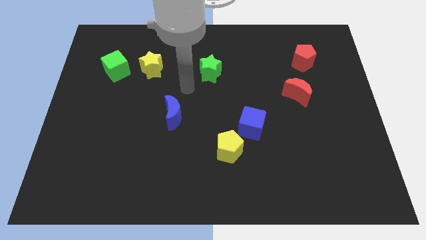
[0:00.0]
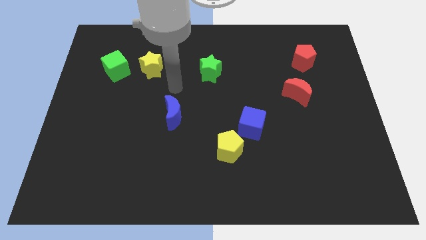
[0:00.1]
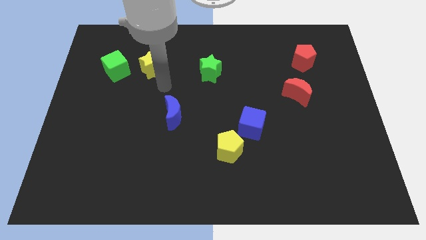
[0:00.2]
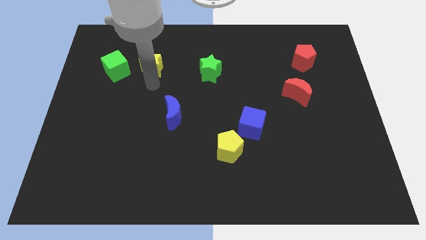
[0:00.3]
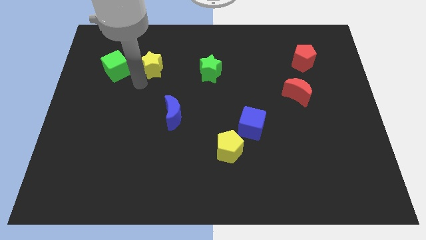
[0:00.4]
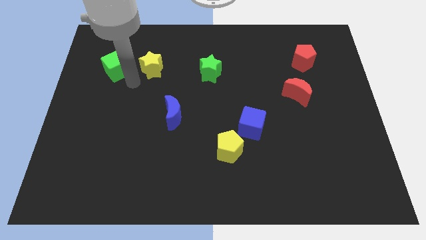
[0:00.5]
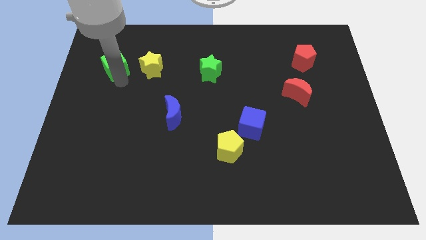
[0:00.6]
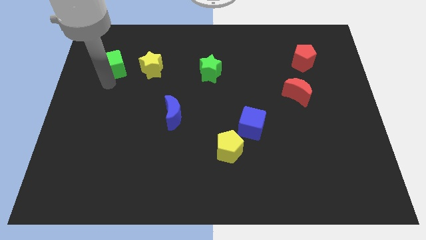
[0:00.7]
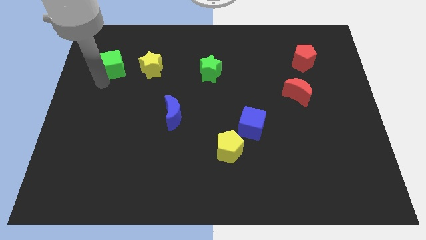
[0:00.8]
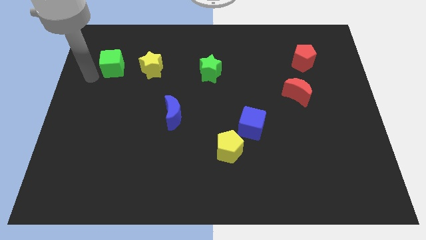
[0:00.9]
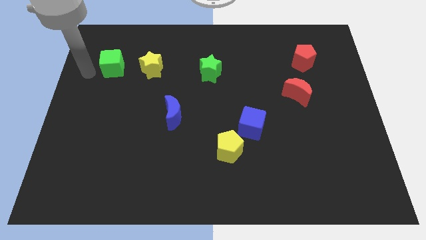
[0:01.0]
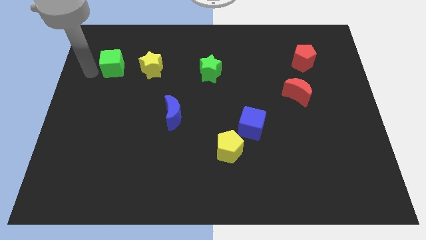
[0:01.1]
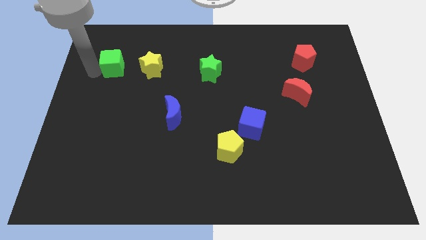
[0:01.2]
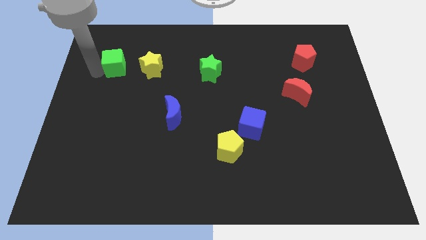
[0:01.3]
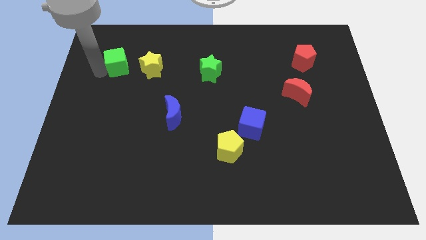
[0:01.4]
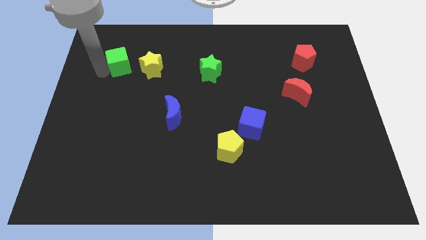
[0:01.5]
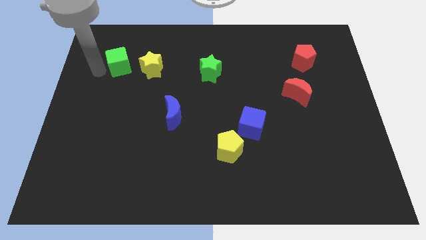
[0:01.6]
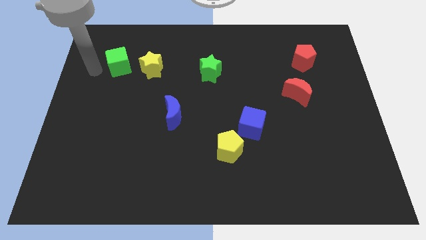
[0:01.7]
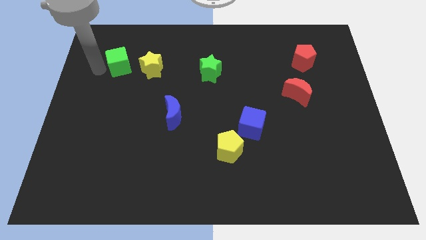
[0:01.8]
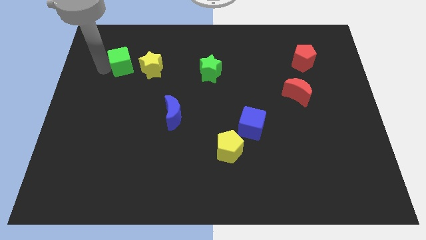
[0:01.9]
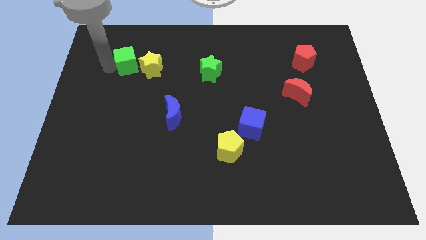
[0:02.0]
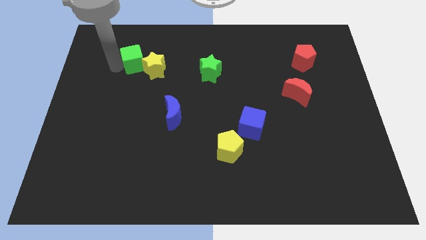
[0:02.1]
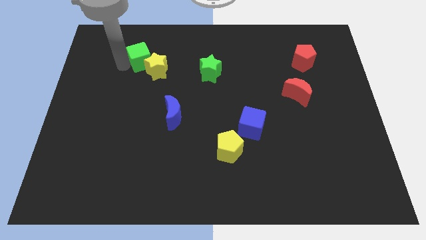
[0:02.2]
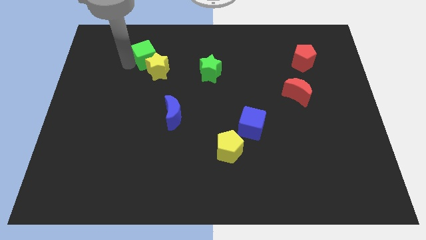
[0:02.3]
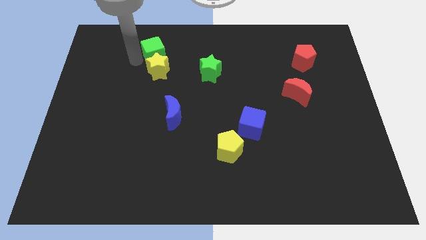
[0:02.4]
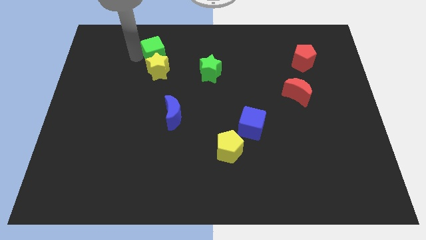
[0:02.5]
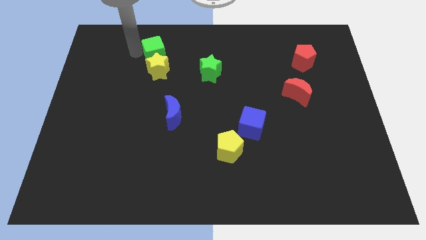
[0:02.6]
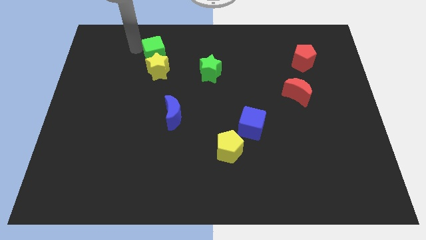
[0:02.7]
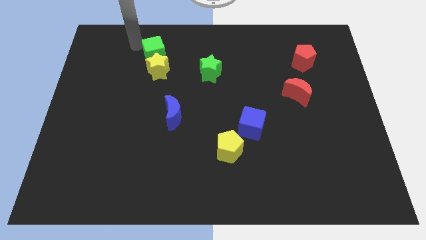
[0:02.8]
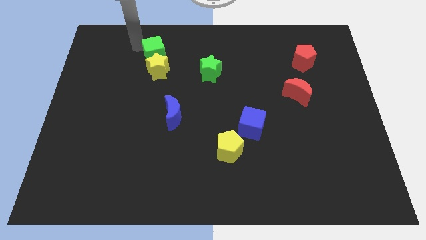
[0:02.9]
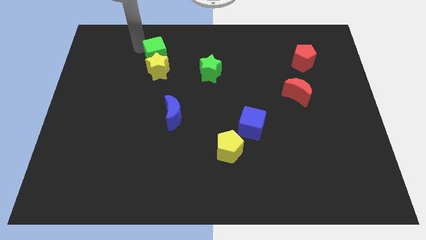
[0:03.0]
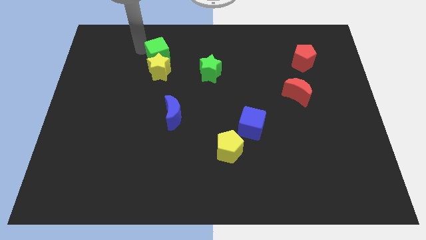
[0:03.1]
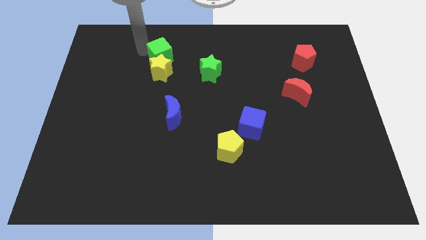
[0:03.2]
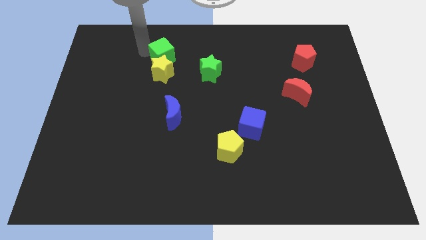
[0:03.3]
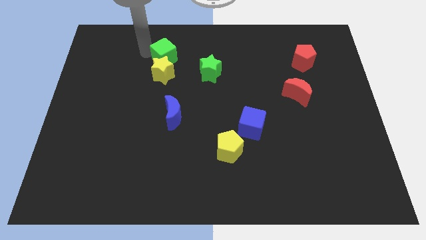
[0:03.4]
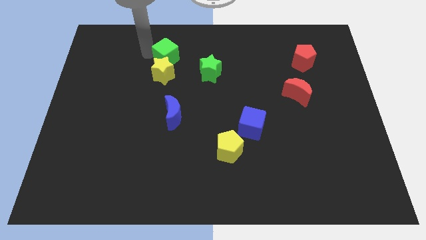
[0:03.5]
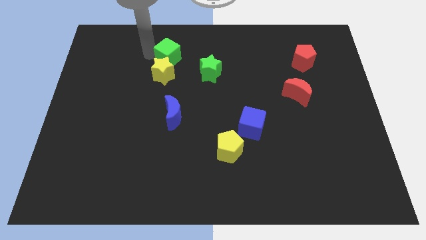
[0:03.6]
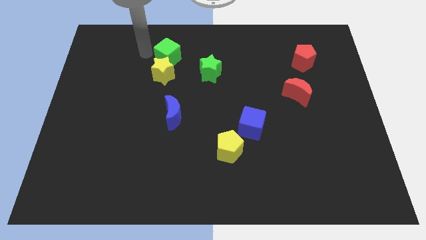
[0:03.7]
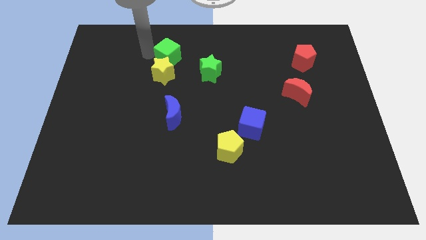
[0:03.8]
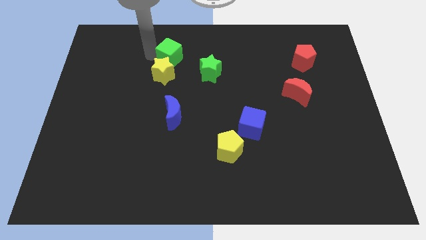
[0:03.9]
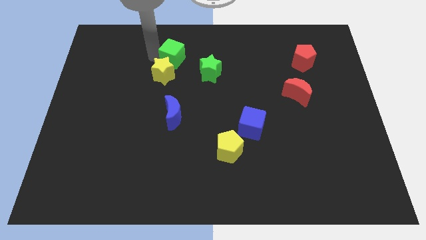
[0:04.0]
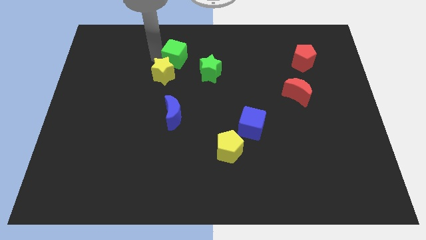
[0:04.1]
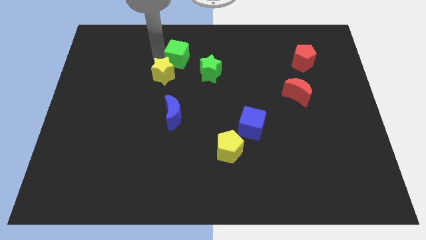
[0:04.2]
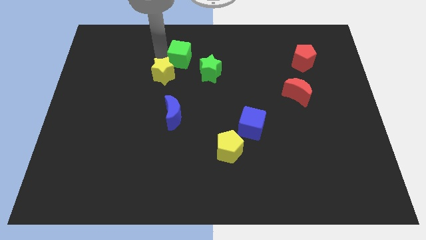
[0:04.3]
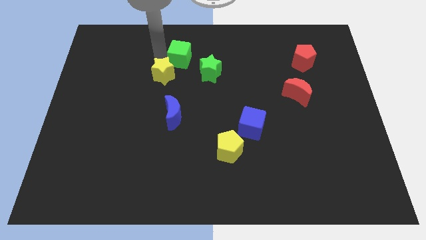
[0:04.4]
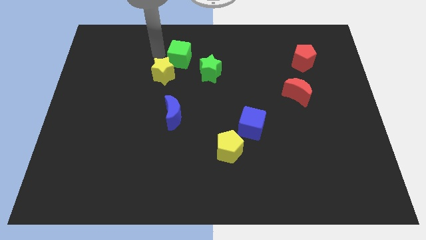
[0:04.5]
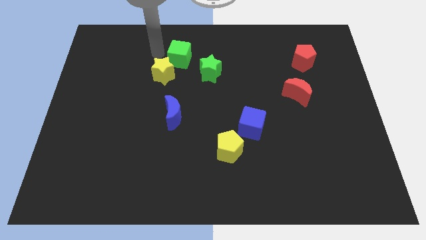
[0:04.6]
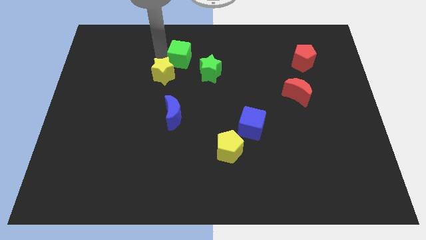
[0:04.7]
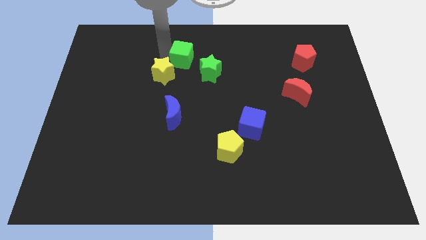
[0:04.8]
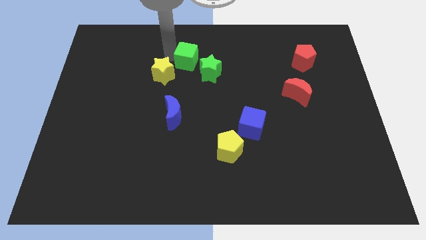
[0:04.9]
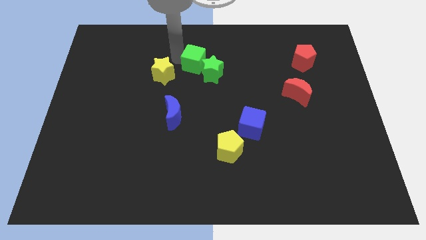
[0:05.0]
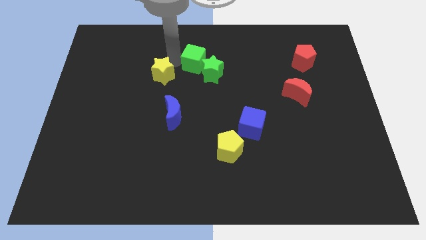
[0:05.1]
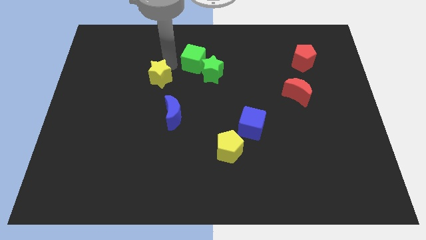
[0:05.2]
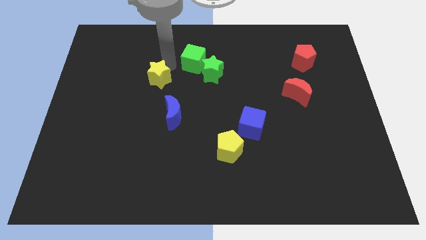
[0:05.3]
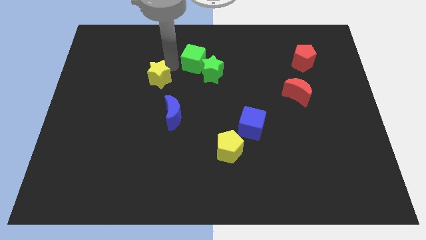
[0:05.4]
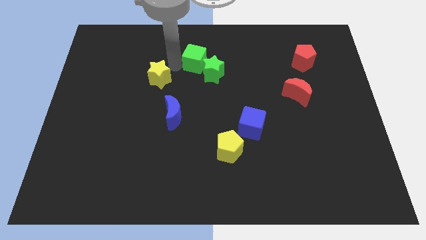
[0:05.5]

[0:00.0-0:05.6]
push the green cube right

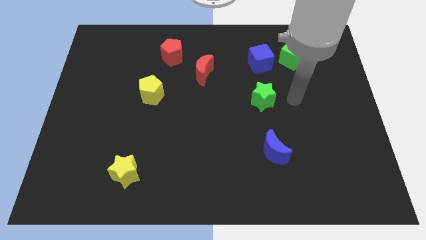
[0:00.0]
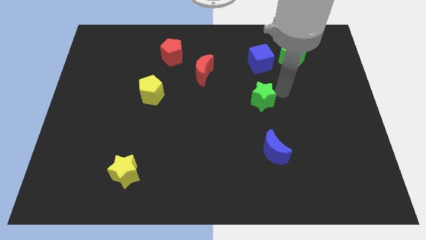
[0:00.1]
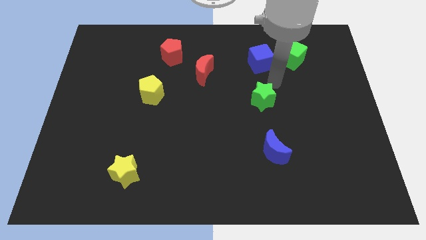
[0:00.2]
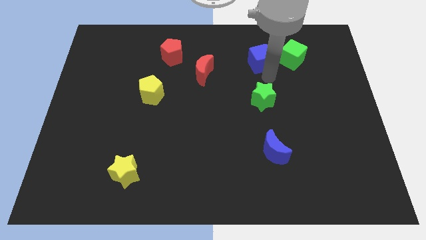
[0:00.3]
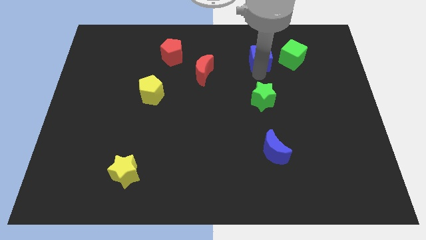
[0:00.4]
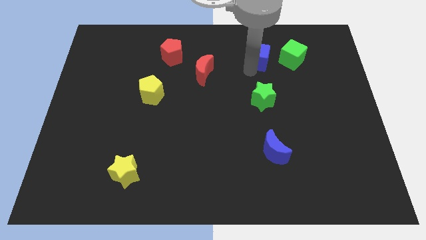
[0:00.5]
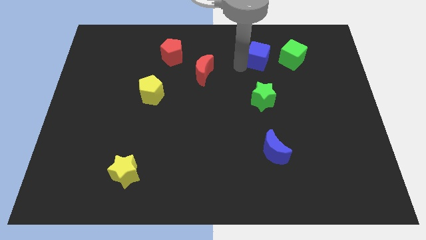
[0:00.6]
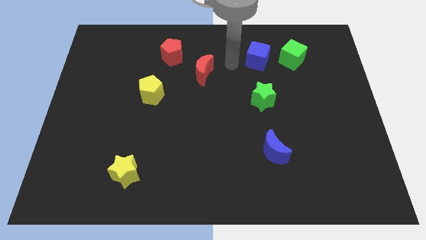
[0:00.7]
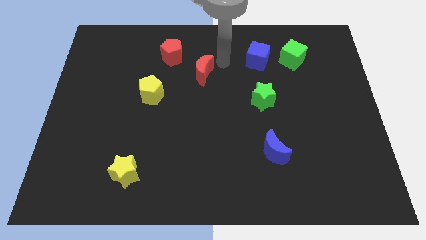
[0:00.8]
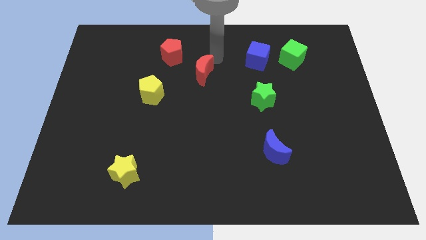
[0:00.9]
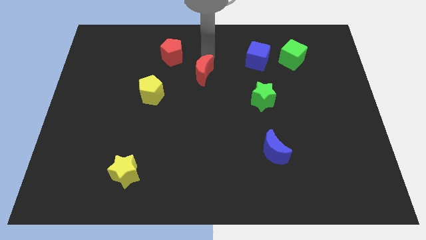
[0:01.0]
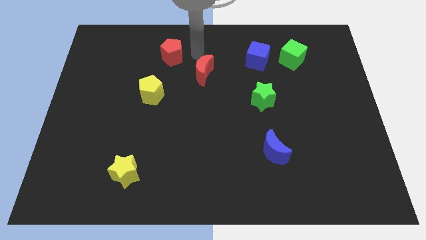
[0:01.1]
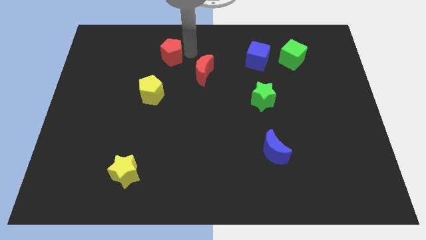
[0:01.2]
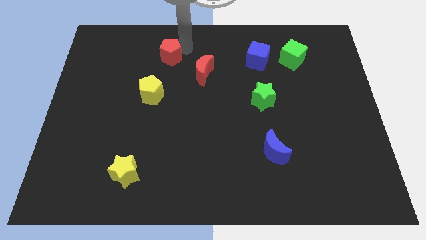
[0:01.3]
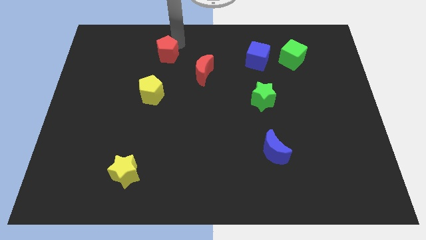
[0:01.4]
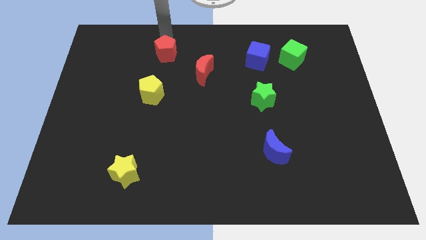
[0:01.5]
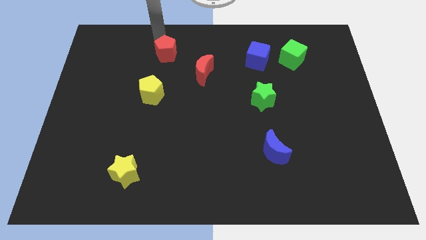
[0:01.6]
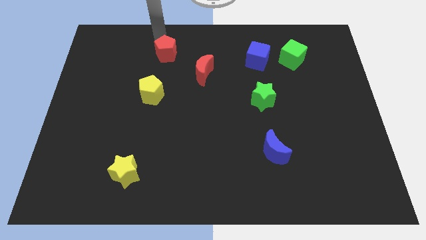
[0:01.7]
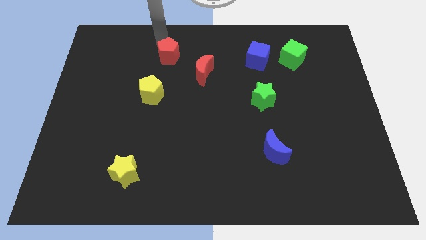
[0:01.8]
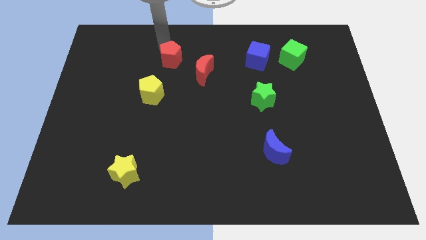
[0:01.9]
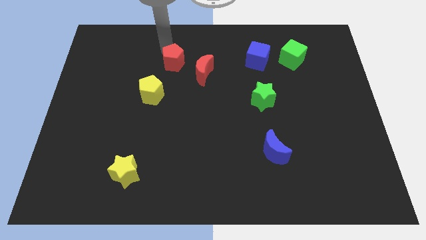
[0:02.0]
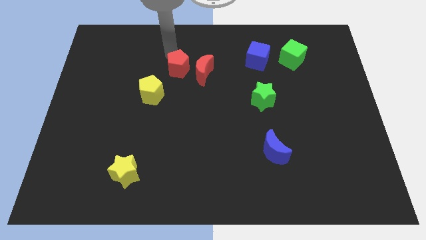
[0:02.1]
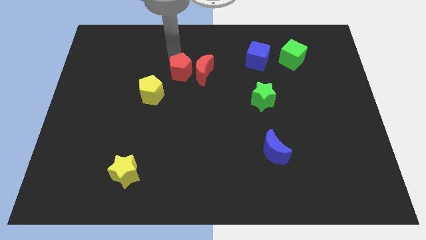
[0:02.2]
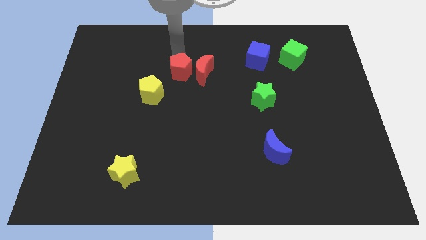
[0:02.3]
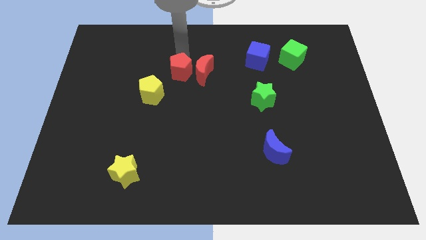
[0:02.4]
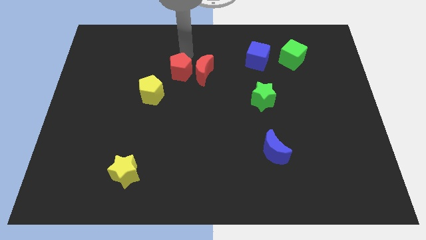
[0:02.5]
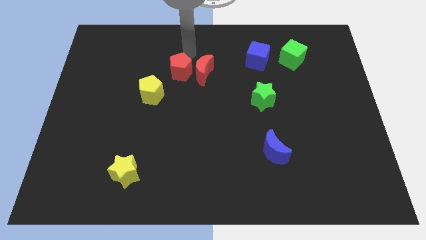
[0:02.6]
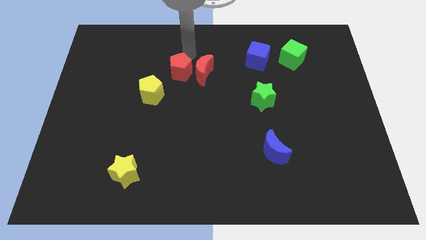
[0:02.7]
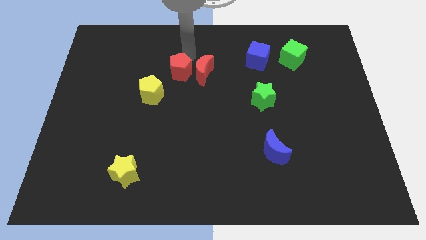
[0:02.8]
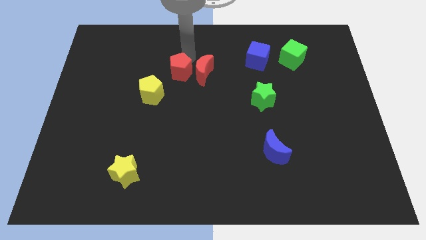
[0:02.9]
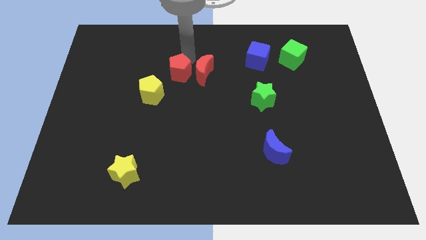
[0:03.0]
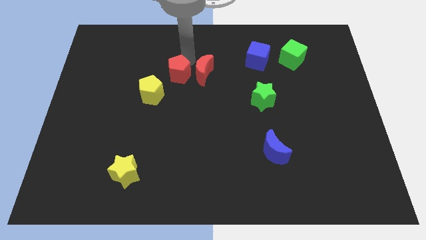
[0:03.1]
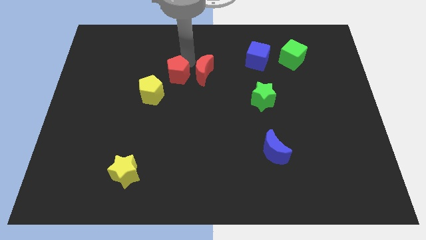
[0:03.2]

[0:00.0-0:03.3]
slide the red pentagon slightly downwards
